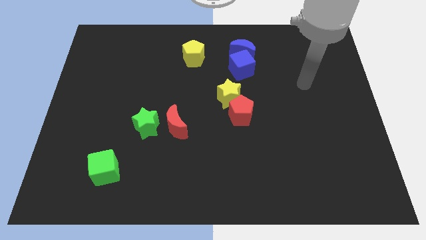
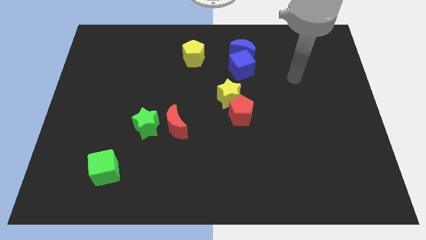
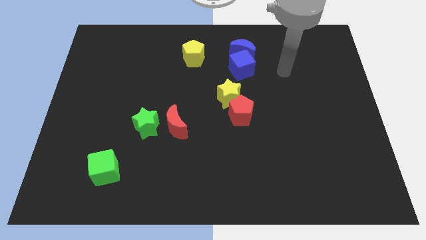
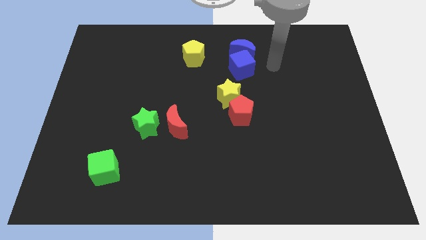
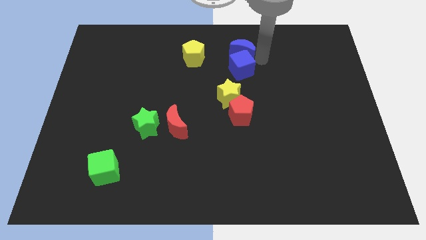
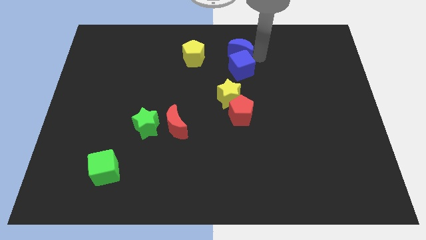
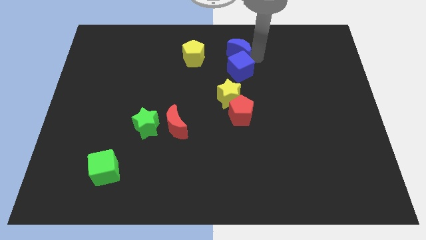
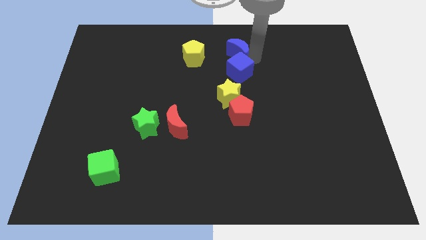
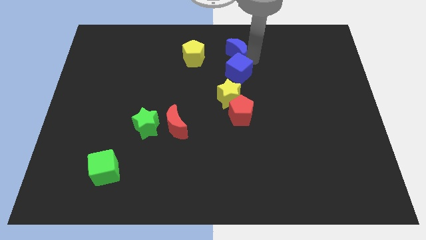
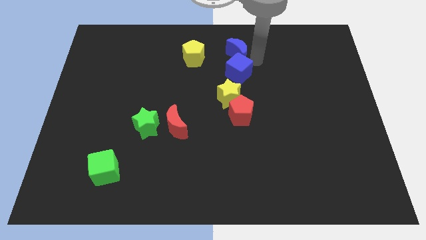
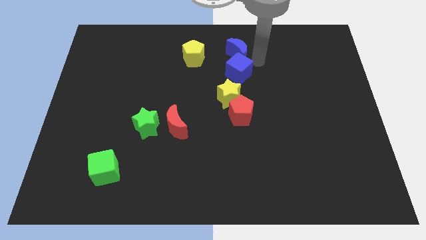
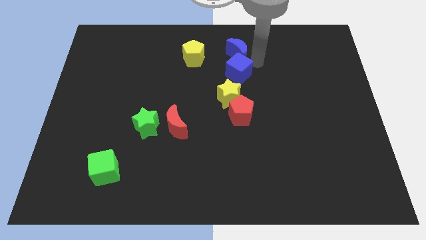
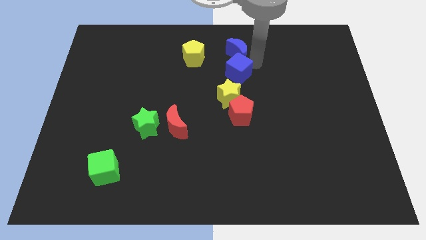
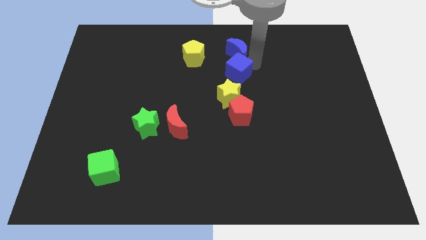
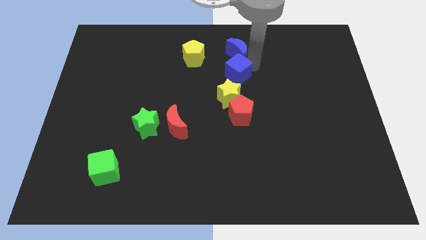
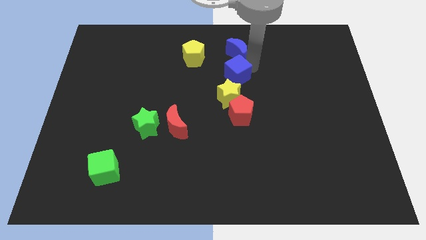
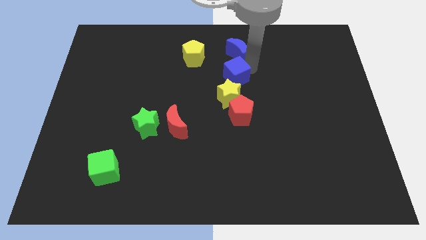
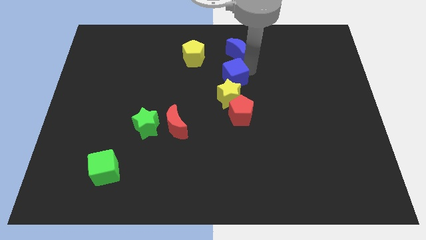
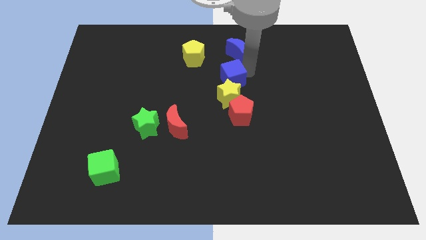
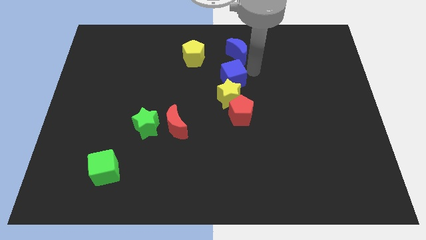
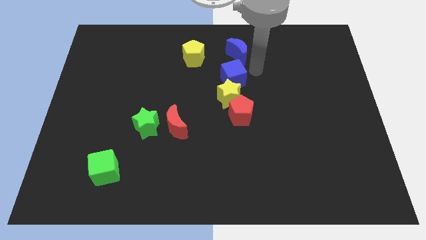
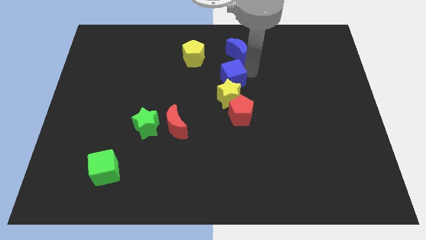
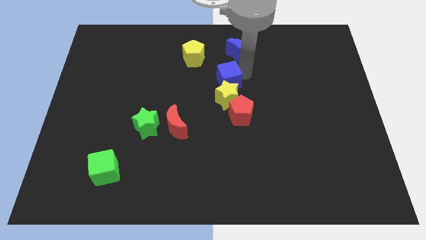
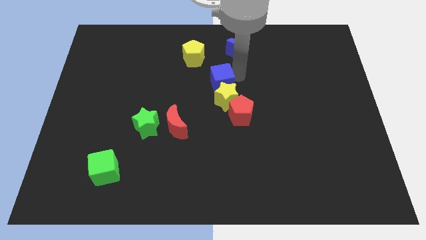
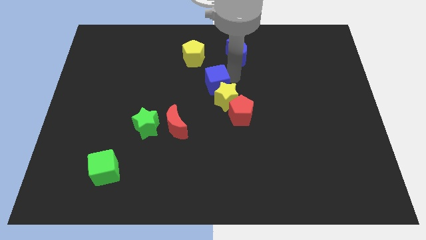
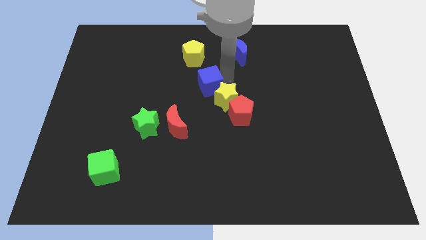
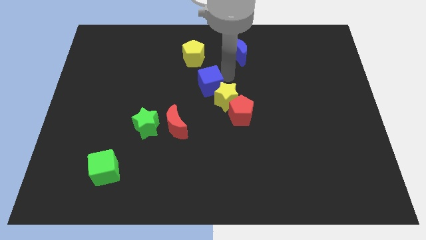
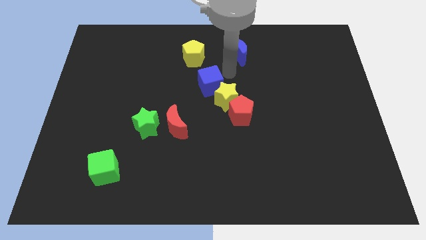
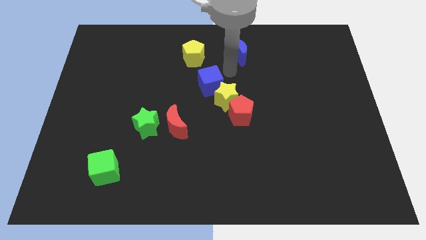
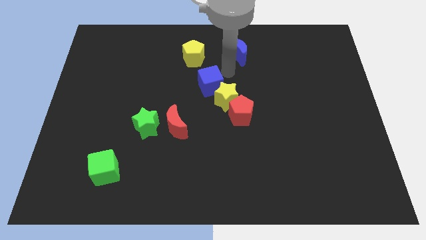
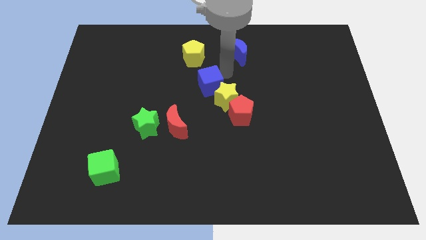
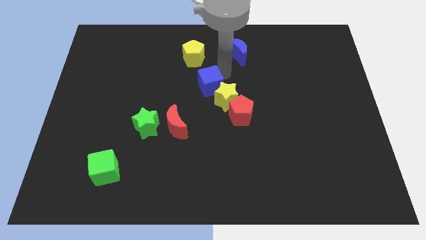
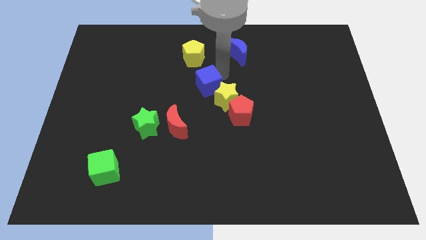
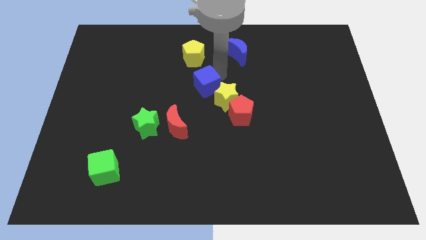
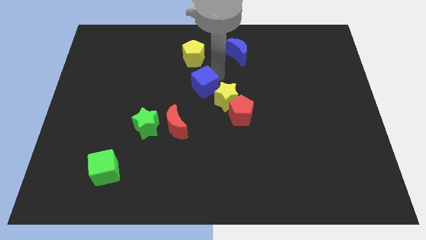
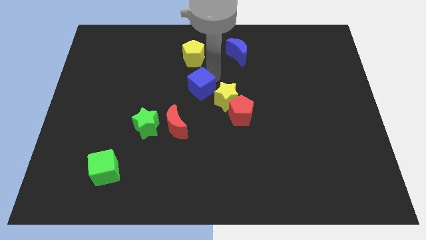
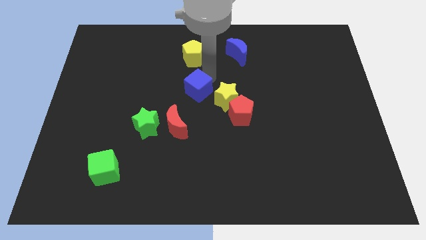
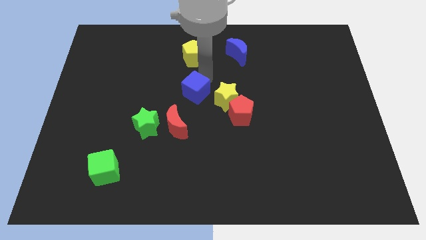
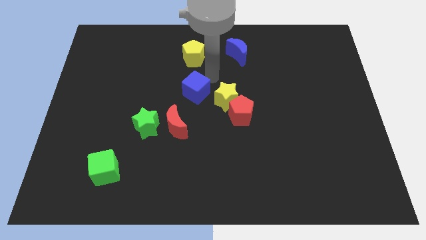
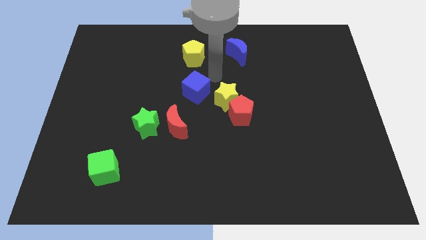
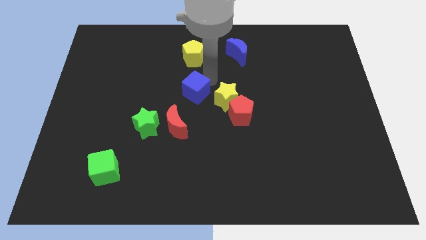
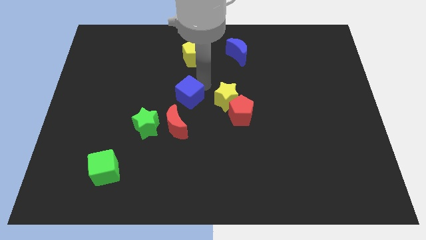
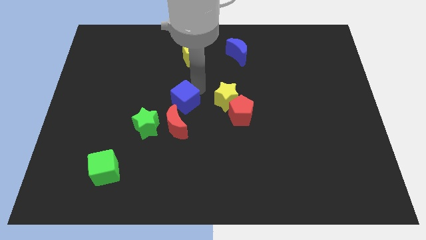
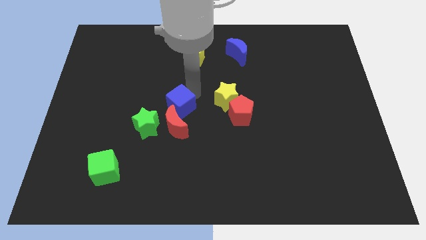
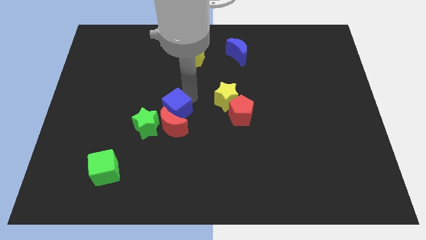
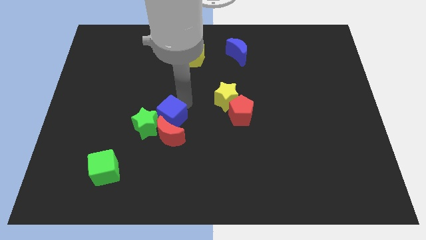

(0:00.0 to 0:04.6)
move the blue cube towards the green star

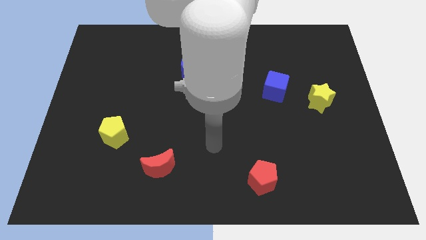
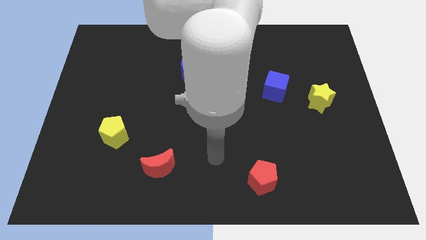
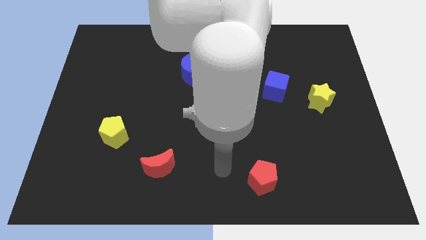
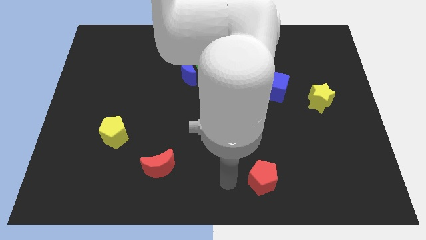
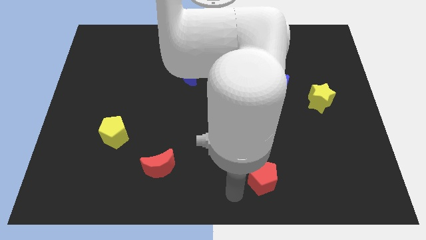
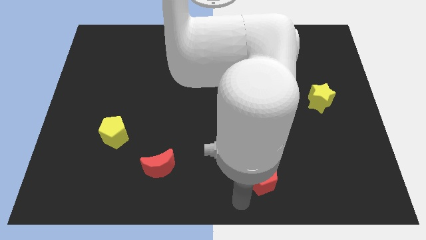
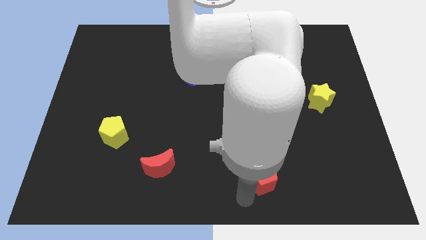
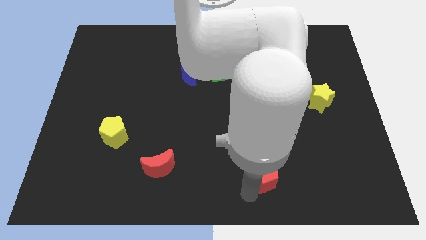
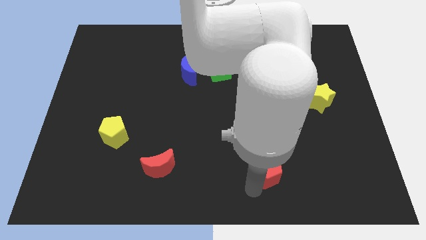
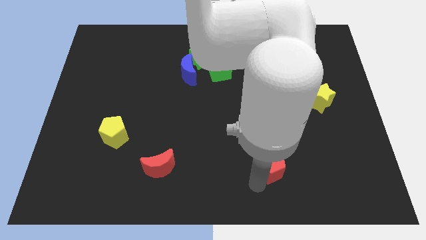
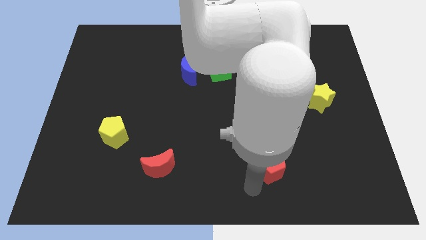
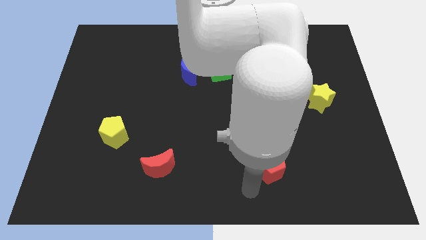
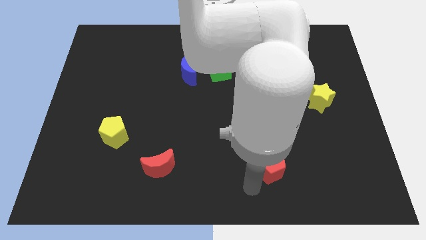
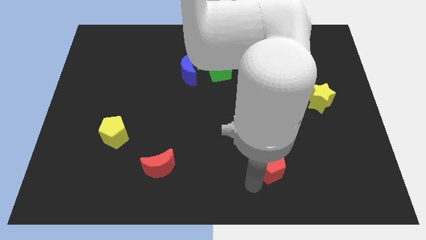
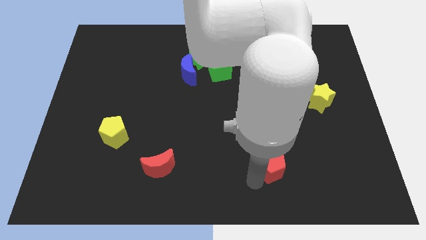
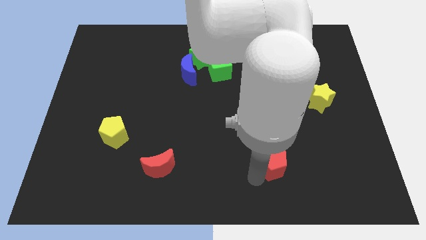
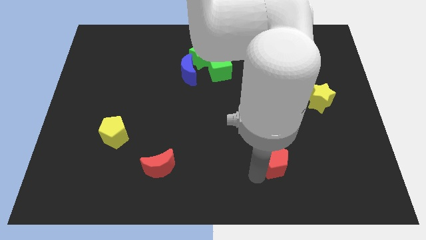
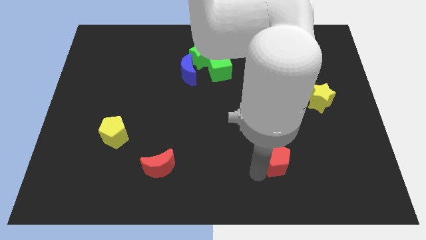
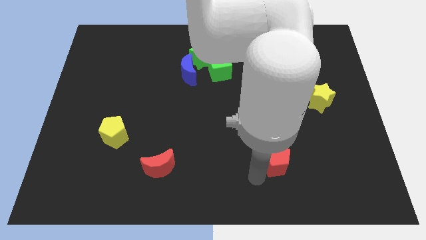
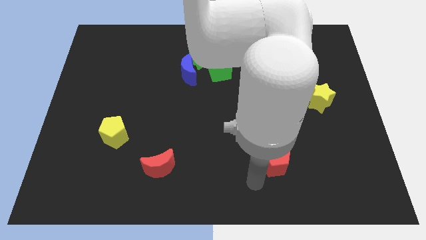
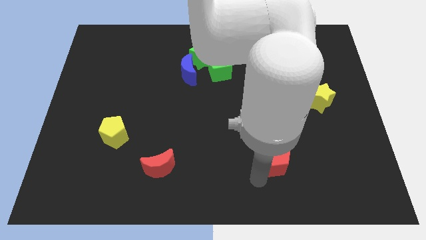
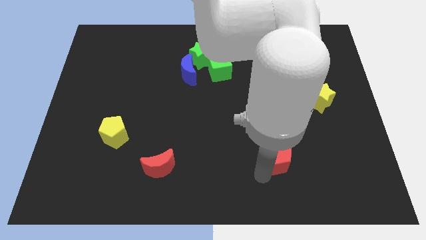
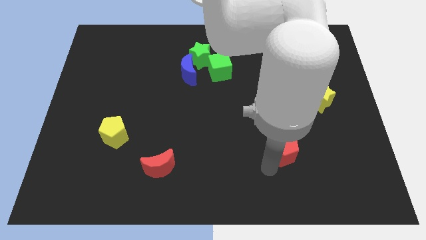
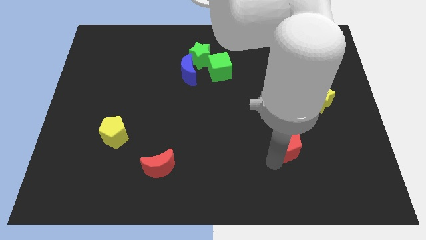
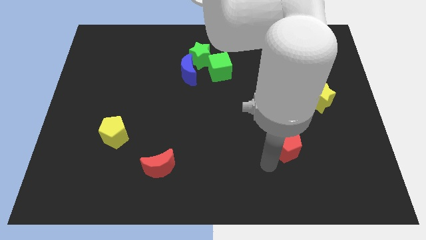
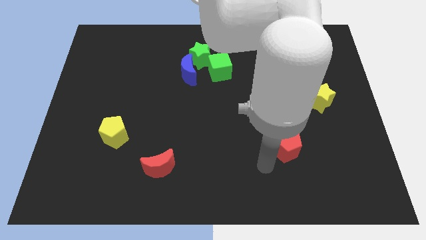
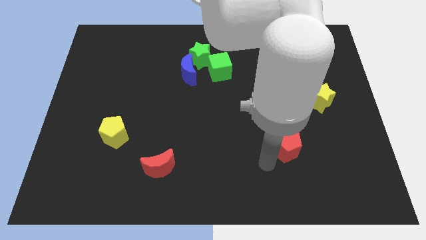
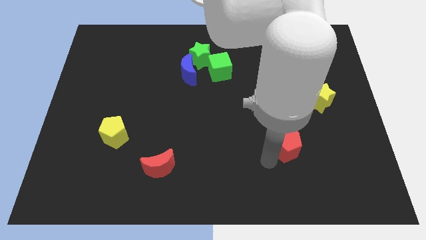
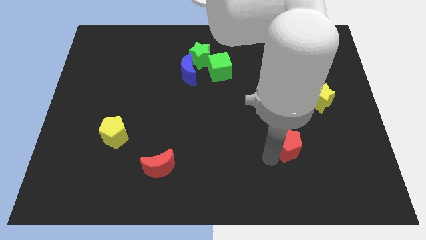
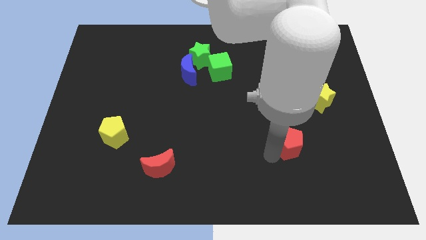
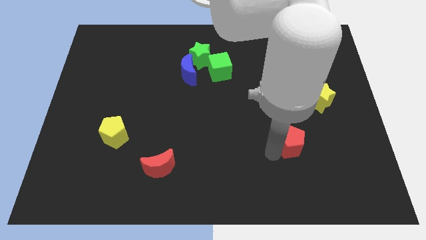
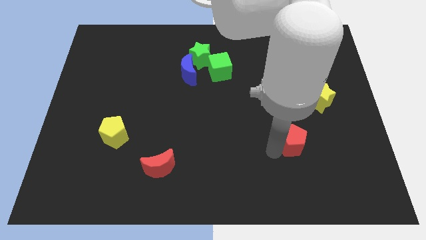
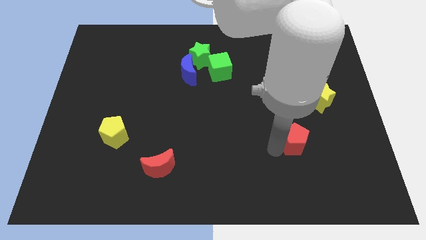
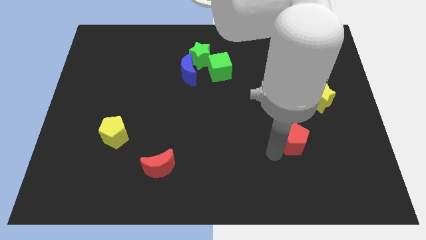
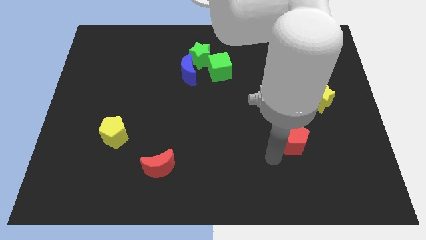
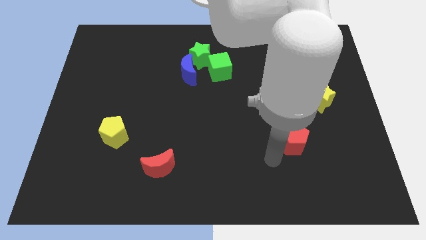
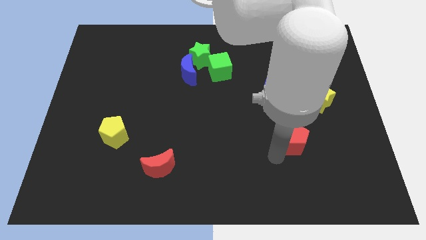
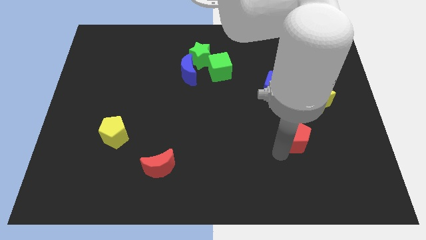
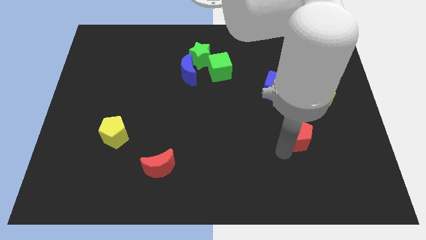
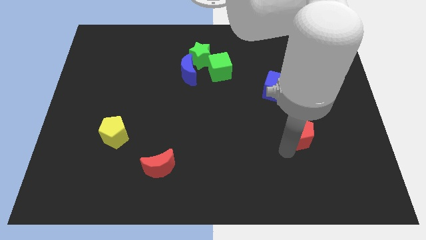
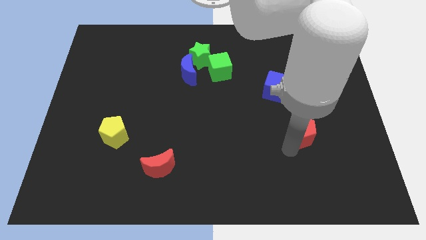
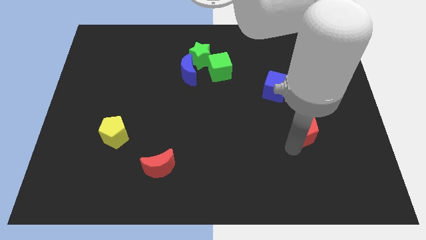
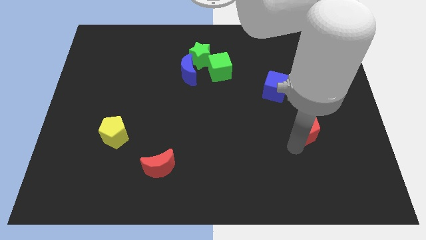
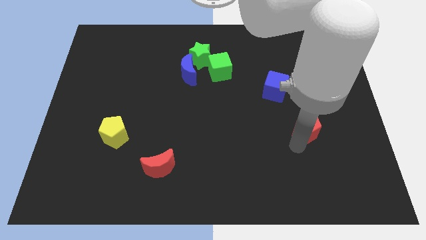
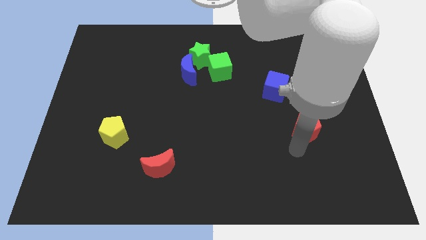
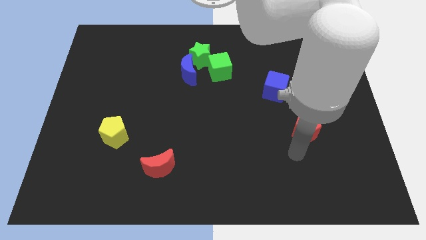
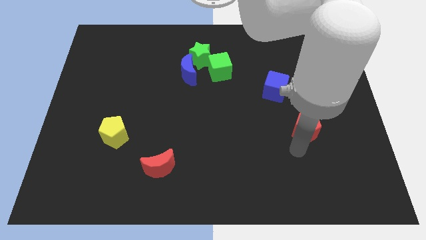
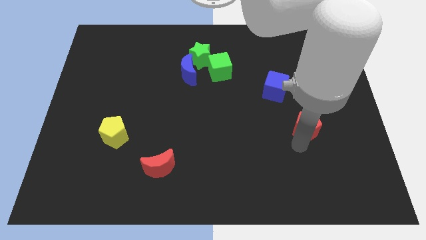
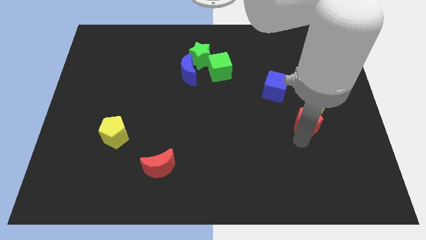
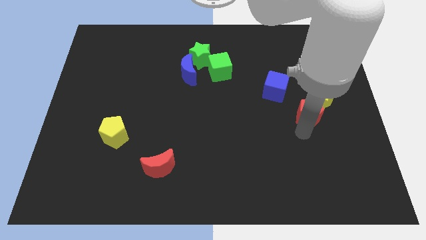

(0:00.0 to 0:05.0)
slide the red pentagon to the yellow star
